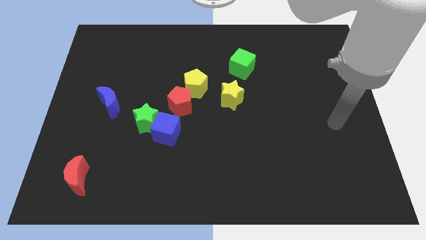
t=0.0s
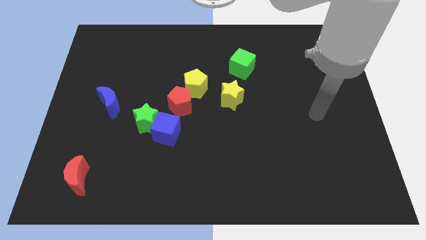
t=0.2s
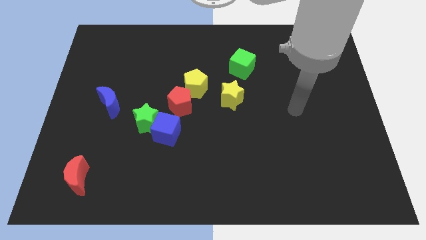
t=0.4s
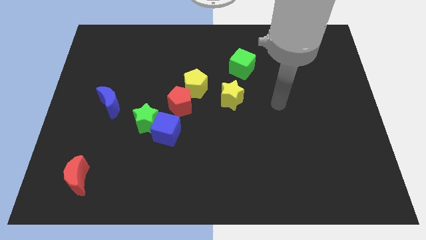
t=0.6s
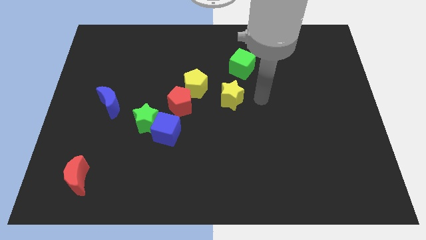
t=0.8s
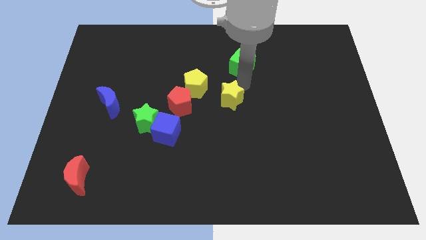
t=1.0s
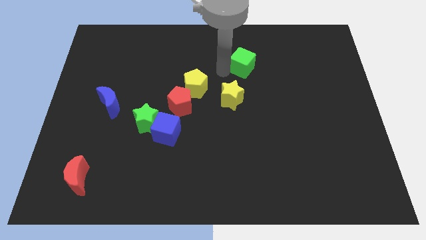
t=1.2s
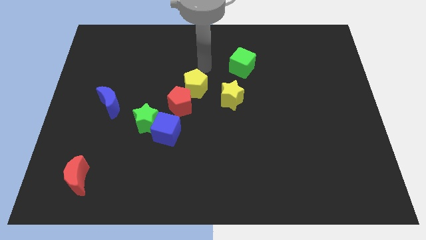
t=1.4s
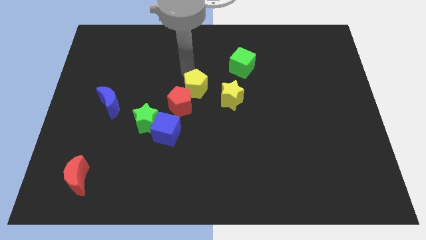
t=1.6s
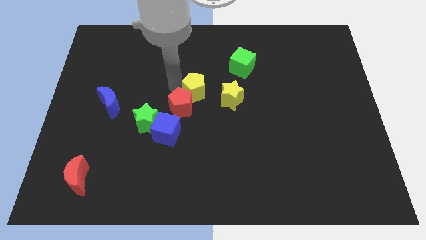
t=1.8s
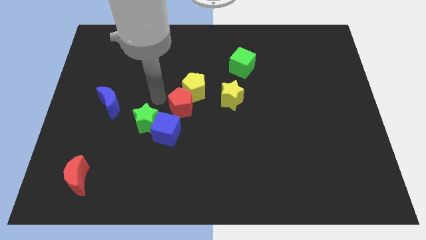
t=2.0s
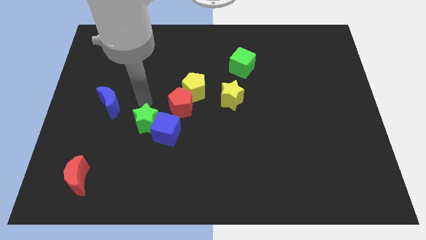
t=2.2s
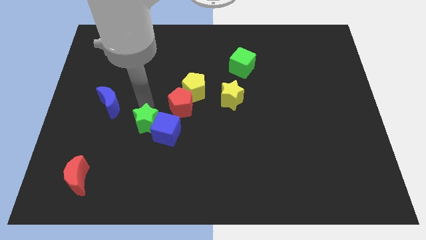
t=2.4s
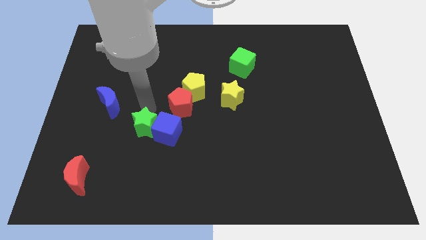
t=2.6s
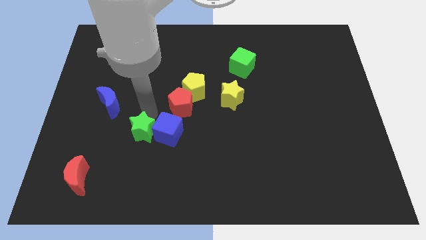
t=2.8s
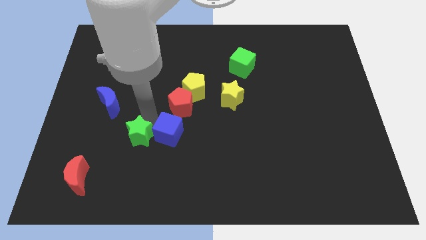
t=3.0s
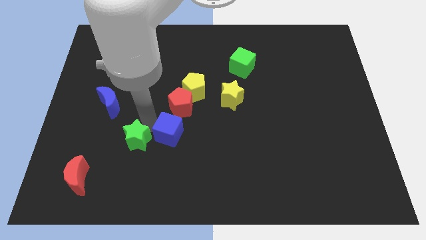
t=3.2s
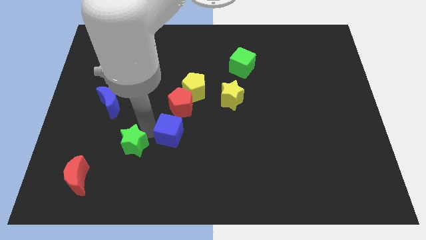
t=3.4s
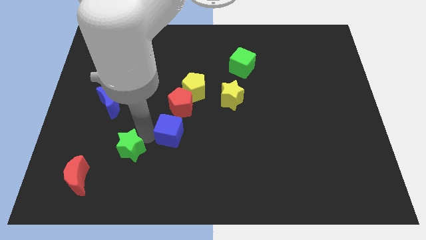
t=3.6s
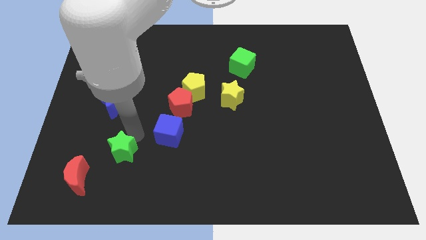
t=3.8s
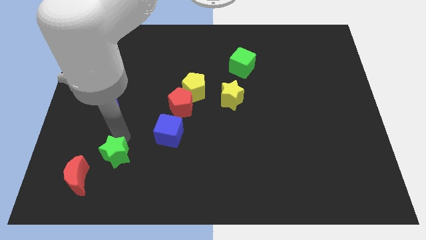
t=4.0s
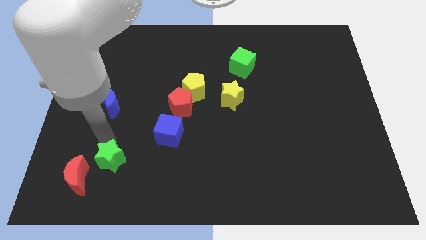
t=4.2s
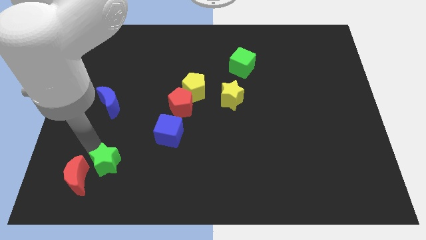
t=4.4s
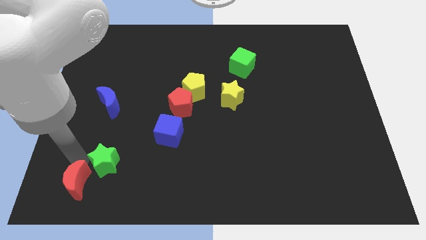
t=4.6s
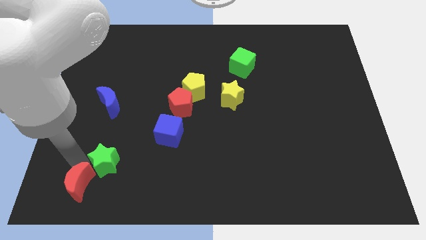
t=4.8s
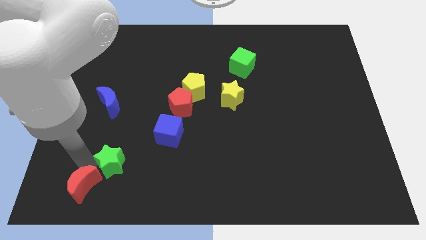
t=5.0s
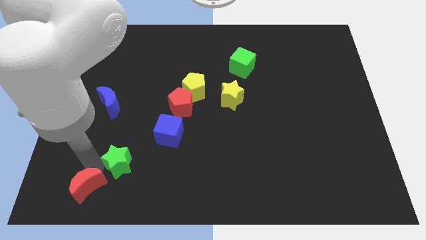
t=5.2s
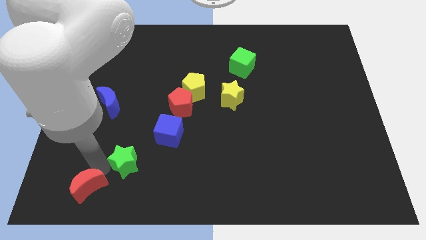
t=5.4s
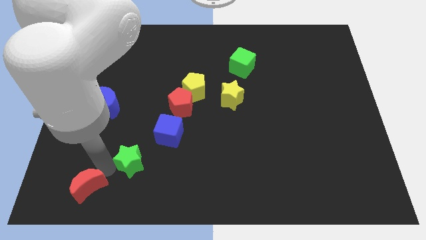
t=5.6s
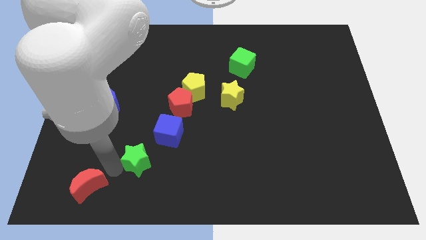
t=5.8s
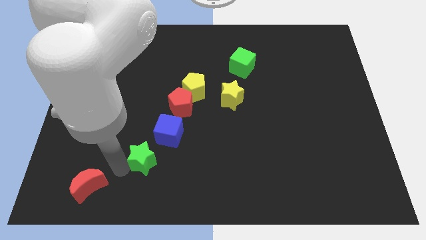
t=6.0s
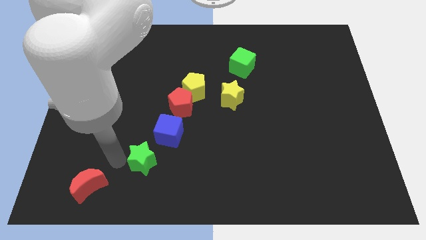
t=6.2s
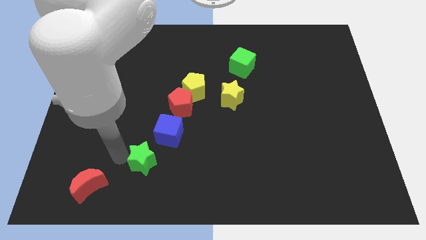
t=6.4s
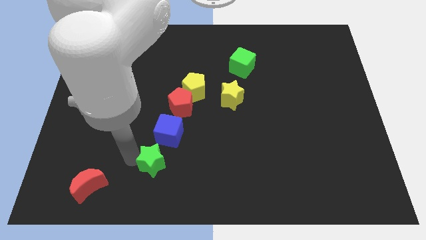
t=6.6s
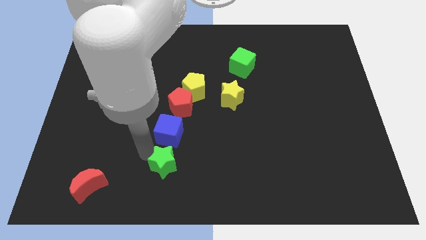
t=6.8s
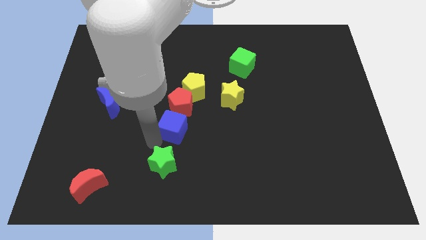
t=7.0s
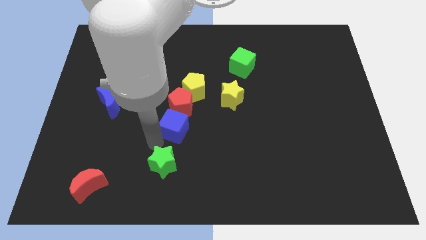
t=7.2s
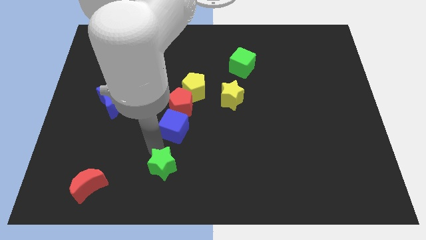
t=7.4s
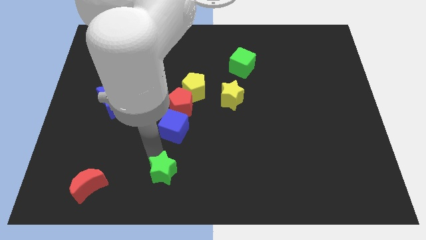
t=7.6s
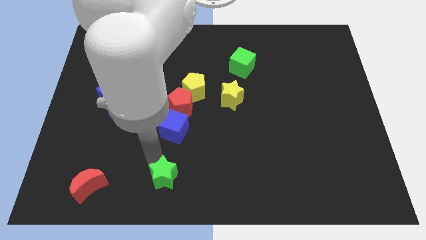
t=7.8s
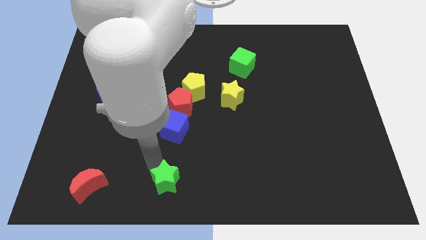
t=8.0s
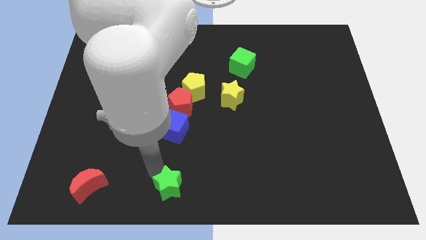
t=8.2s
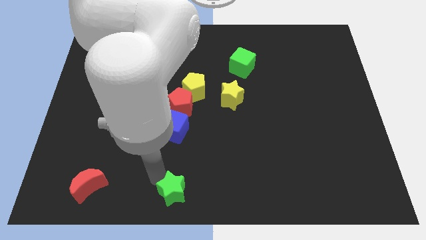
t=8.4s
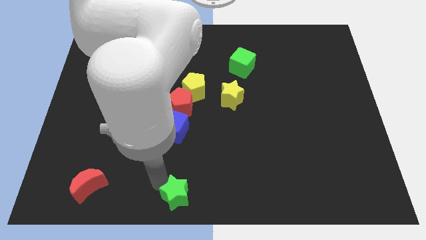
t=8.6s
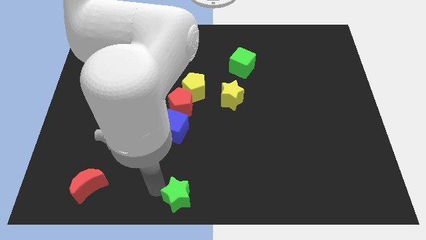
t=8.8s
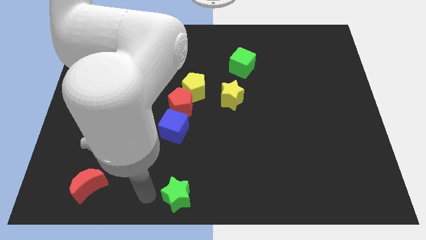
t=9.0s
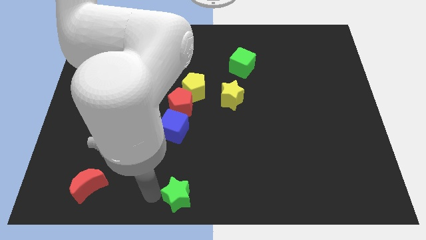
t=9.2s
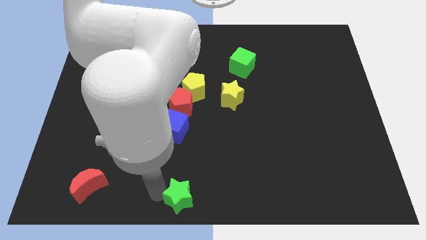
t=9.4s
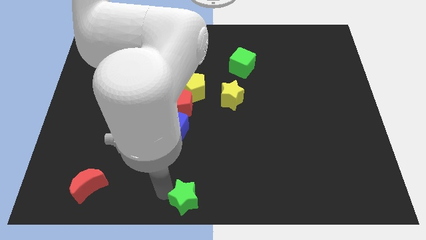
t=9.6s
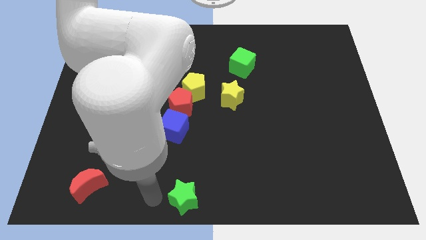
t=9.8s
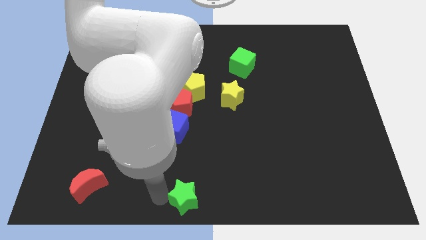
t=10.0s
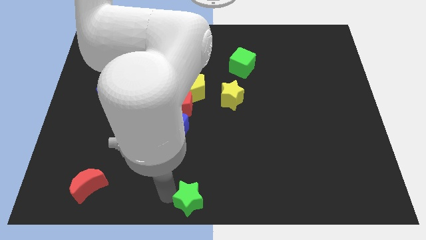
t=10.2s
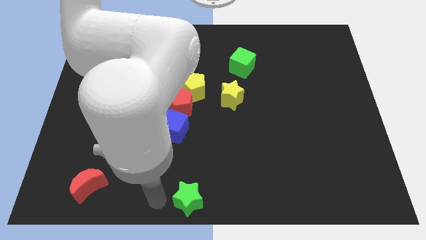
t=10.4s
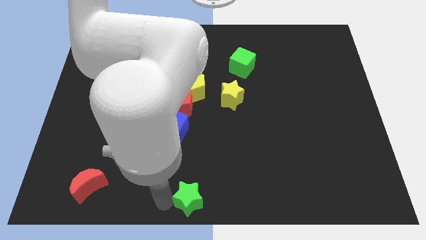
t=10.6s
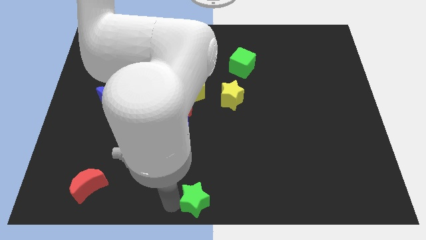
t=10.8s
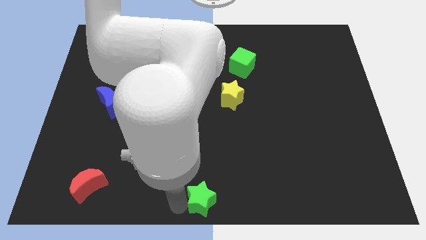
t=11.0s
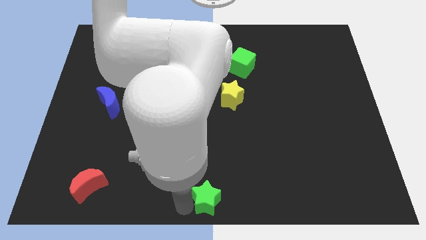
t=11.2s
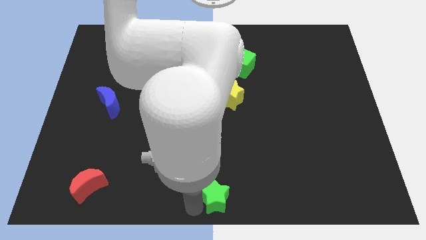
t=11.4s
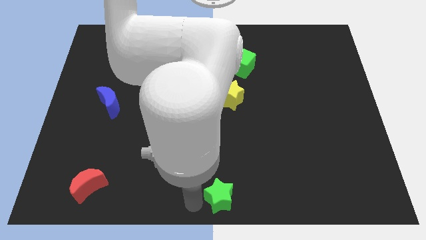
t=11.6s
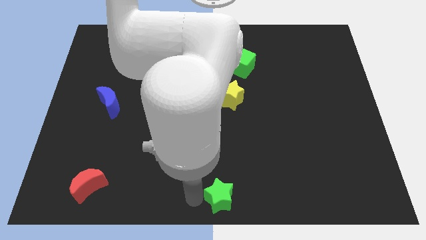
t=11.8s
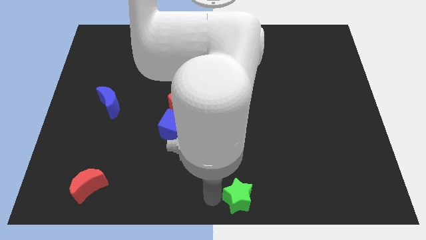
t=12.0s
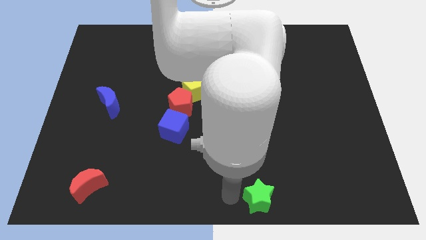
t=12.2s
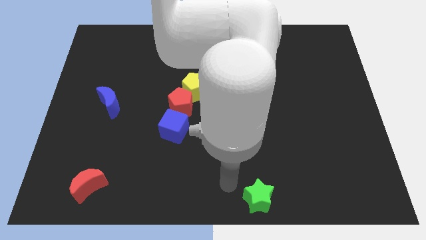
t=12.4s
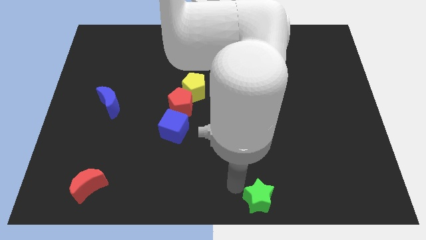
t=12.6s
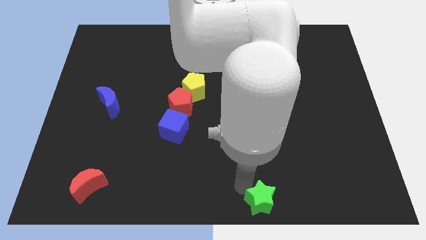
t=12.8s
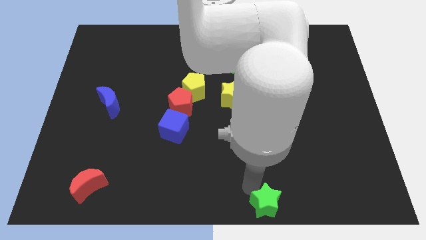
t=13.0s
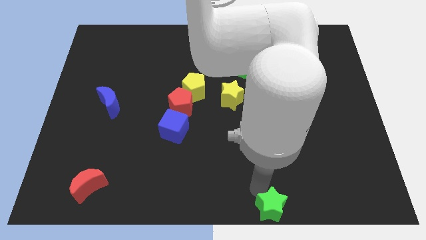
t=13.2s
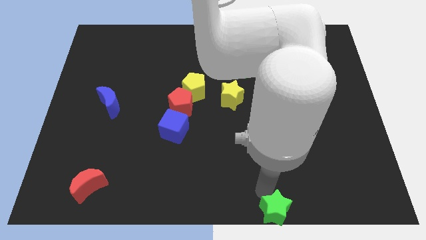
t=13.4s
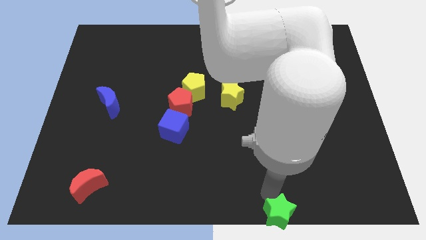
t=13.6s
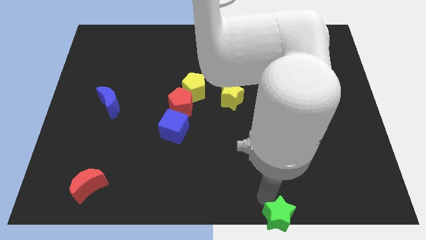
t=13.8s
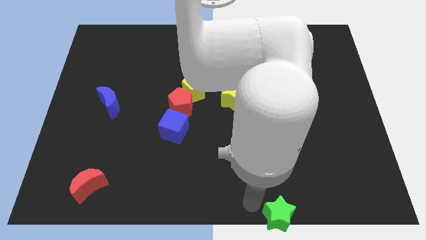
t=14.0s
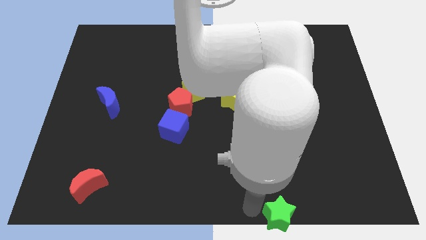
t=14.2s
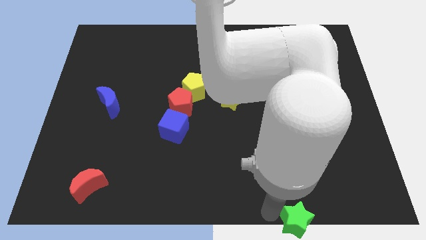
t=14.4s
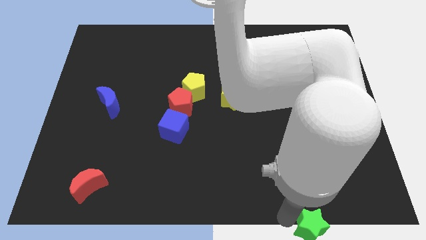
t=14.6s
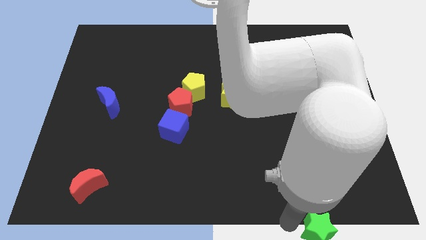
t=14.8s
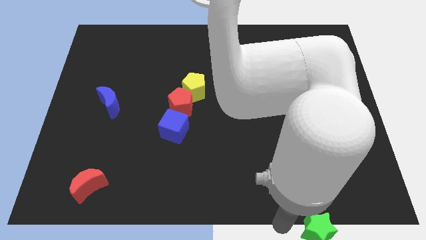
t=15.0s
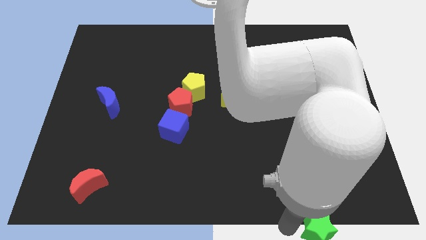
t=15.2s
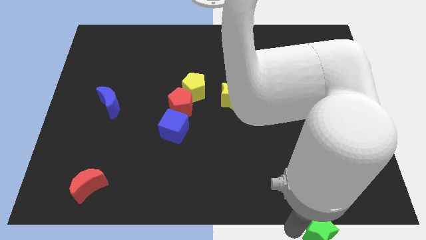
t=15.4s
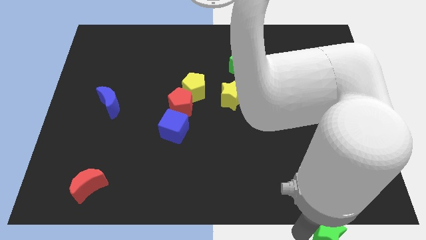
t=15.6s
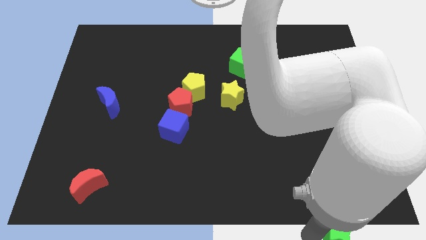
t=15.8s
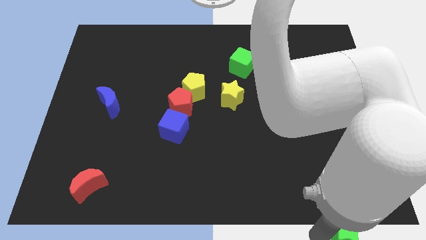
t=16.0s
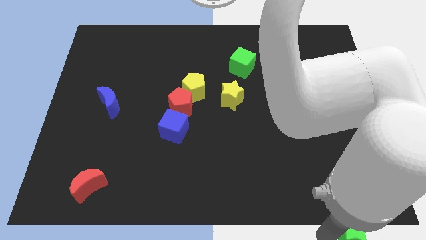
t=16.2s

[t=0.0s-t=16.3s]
put the green star to the bottom right
